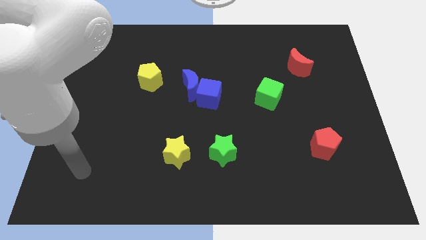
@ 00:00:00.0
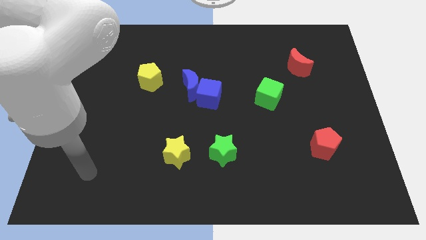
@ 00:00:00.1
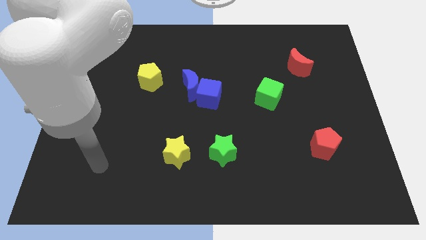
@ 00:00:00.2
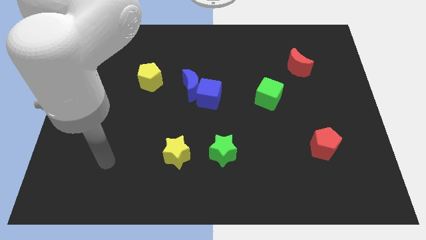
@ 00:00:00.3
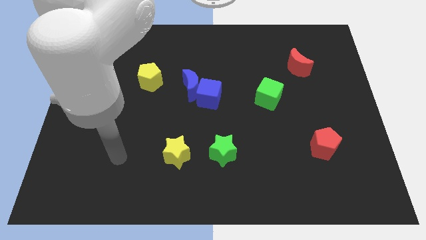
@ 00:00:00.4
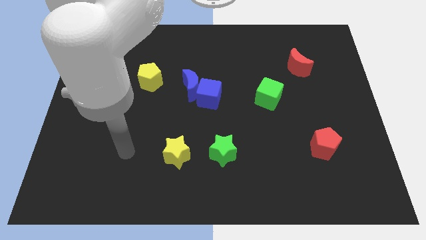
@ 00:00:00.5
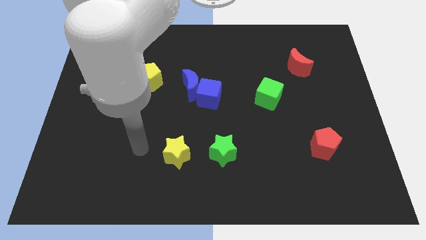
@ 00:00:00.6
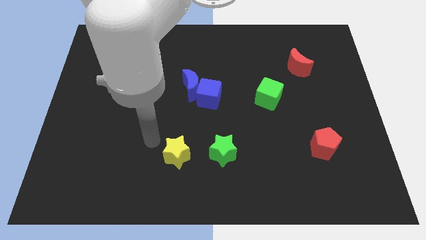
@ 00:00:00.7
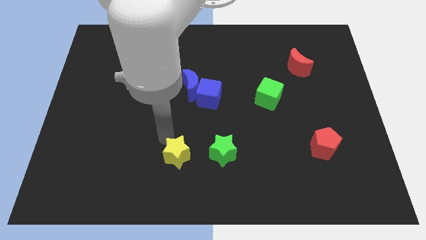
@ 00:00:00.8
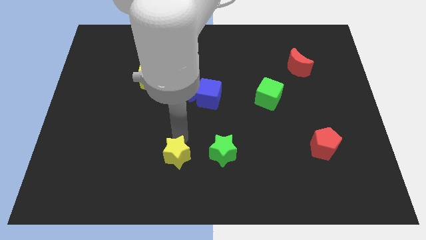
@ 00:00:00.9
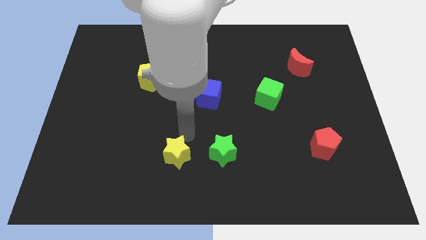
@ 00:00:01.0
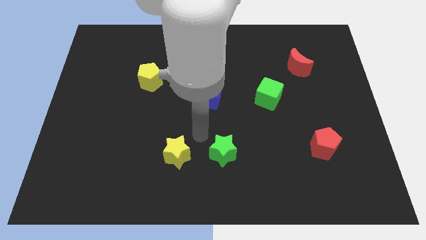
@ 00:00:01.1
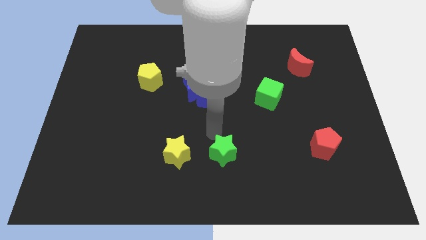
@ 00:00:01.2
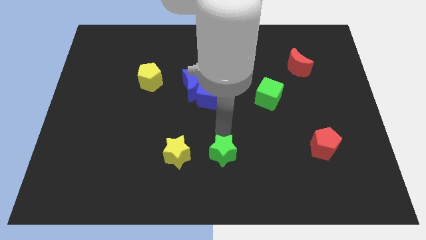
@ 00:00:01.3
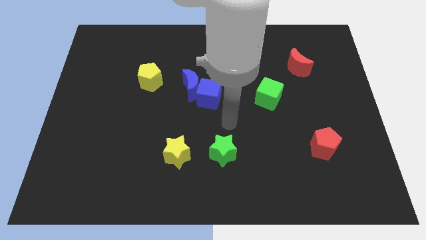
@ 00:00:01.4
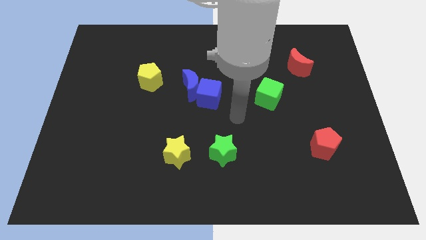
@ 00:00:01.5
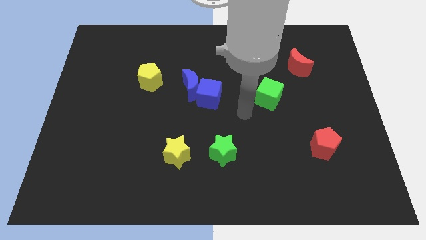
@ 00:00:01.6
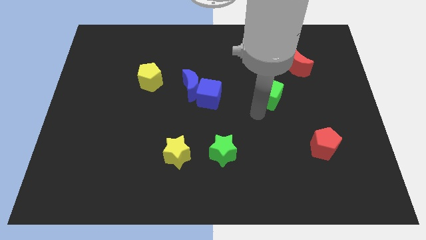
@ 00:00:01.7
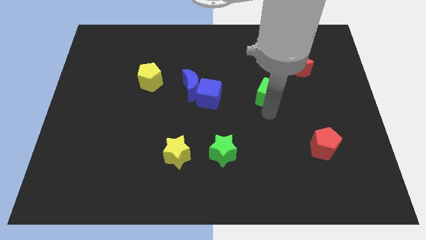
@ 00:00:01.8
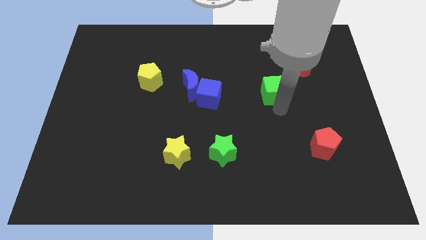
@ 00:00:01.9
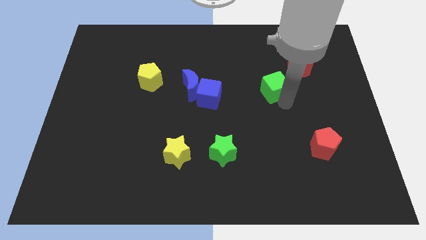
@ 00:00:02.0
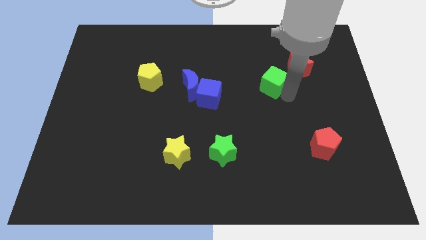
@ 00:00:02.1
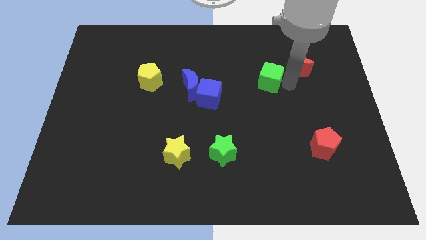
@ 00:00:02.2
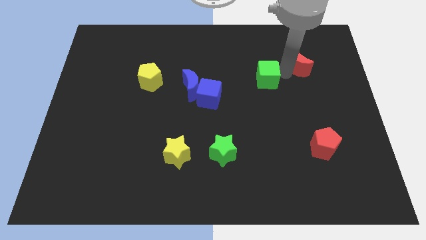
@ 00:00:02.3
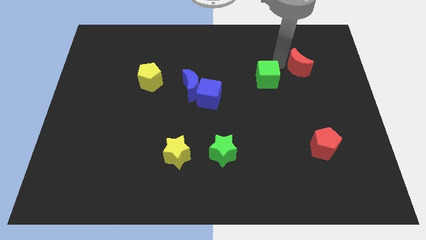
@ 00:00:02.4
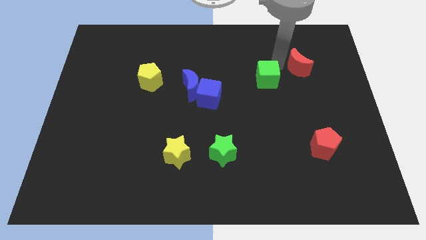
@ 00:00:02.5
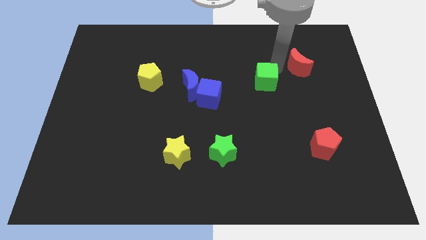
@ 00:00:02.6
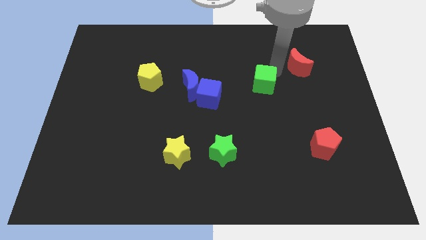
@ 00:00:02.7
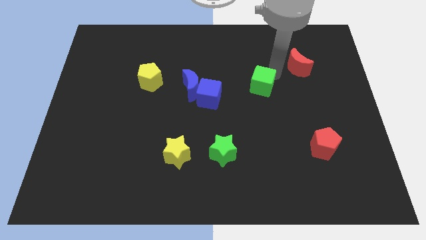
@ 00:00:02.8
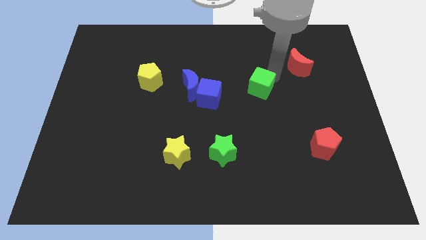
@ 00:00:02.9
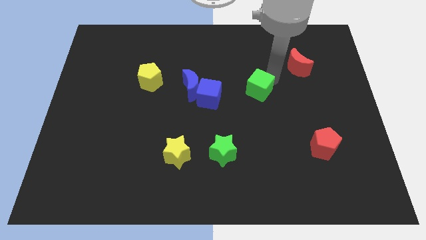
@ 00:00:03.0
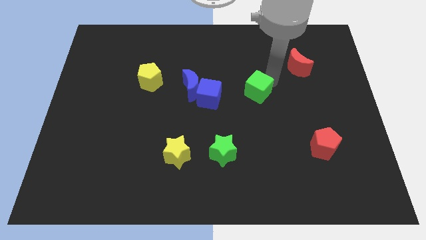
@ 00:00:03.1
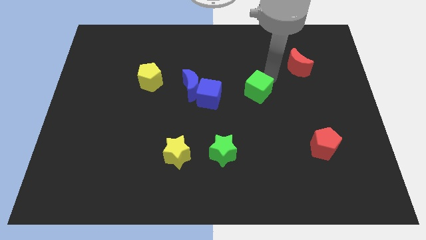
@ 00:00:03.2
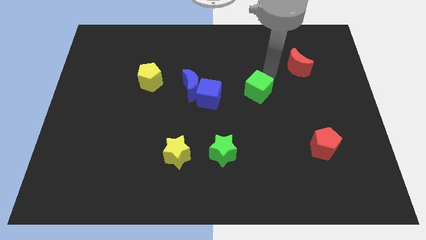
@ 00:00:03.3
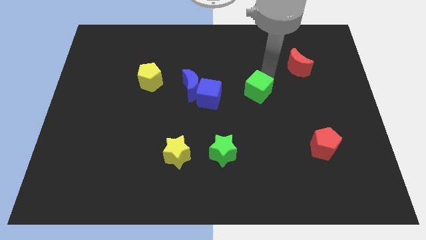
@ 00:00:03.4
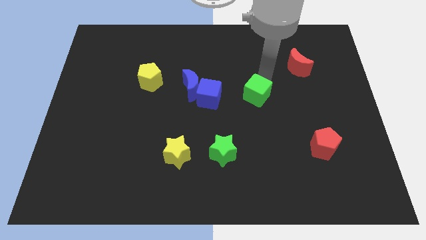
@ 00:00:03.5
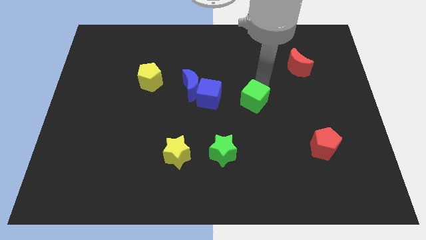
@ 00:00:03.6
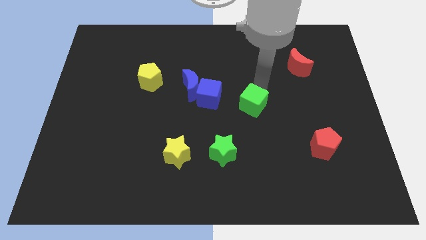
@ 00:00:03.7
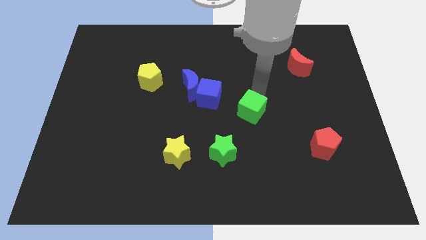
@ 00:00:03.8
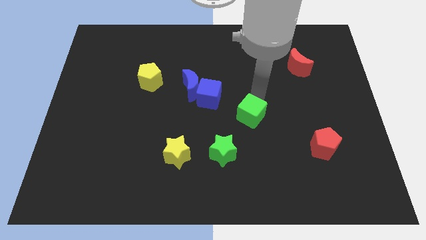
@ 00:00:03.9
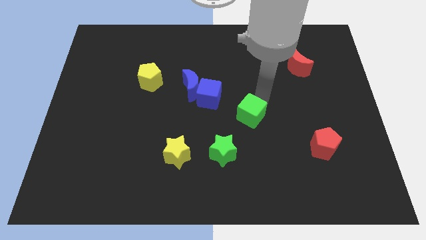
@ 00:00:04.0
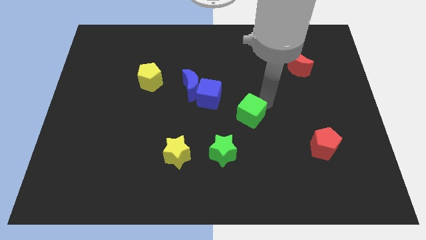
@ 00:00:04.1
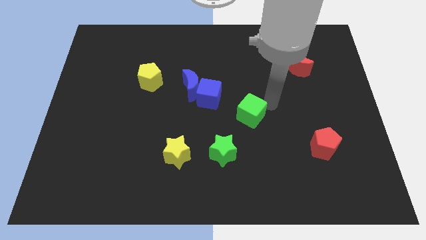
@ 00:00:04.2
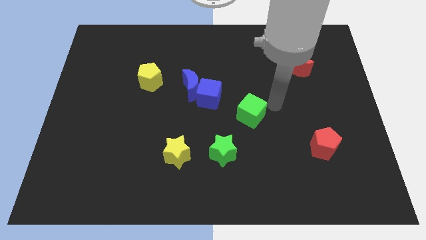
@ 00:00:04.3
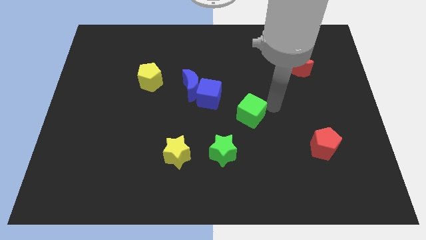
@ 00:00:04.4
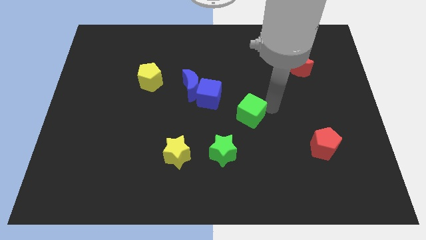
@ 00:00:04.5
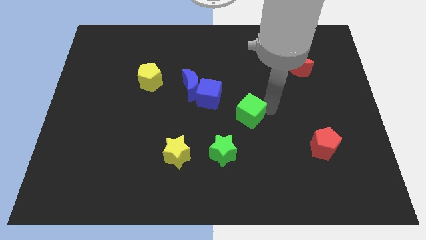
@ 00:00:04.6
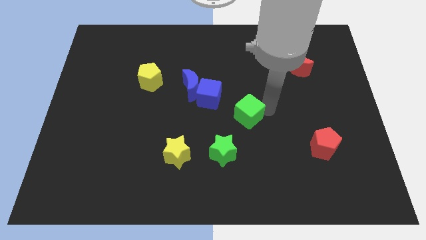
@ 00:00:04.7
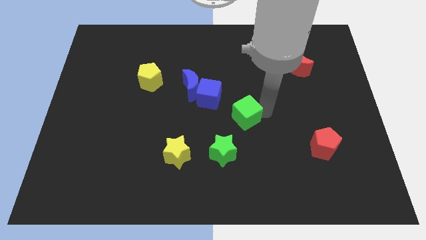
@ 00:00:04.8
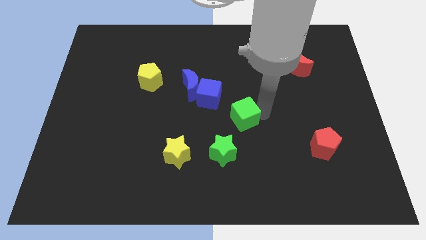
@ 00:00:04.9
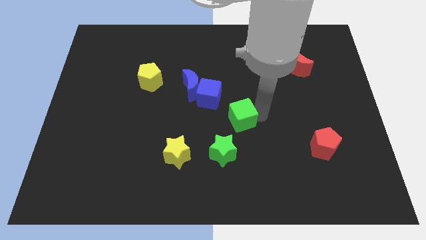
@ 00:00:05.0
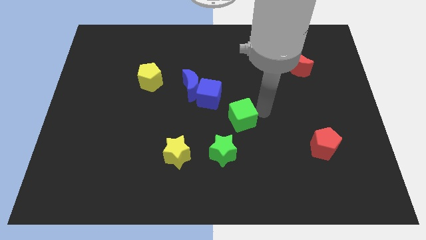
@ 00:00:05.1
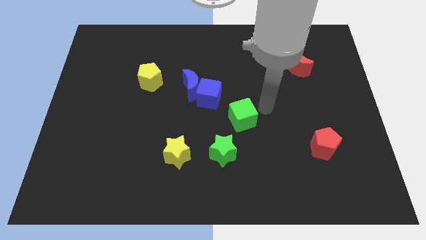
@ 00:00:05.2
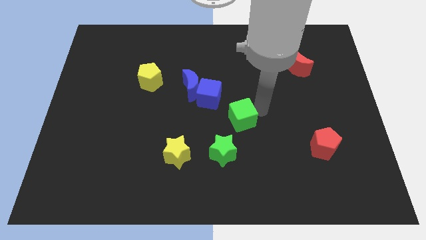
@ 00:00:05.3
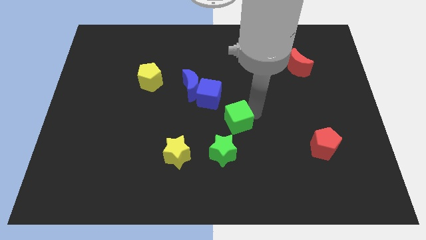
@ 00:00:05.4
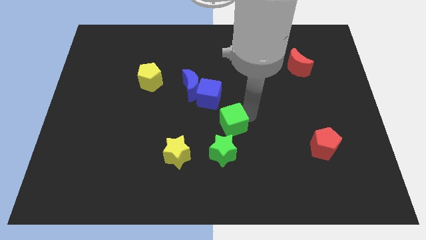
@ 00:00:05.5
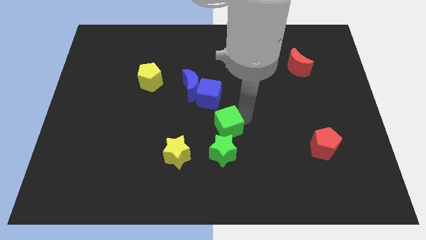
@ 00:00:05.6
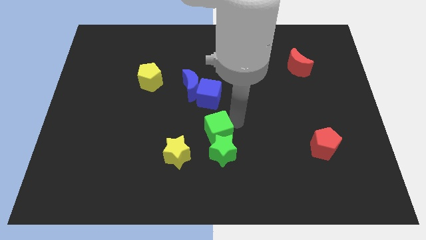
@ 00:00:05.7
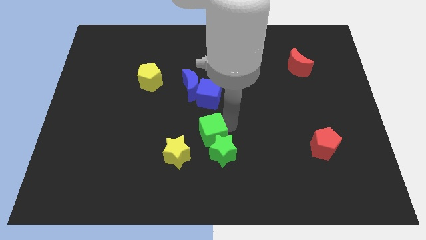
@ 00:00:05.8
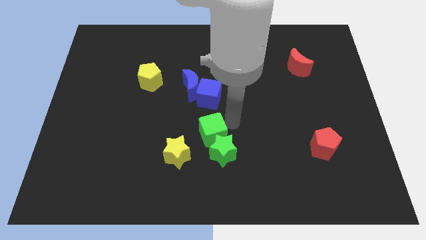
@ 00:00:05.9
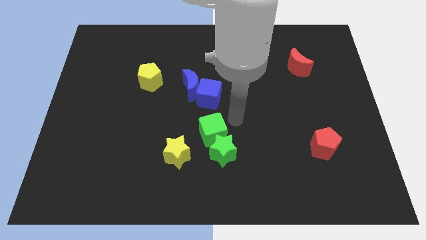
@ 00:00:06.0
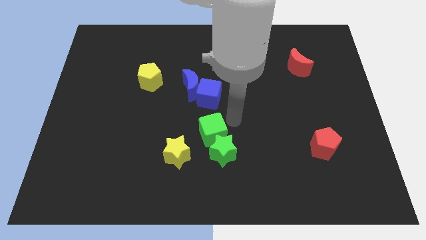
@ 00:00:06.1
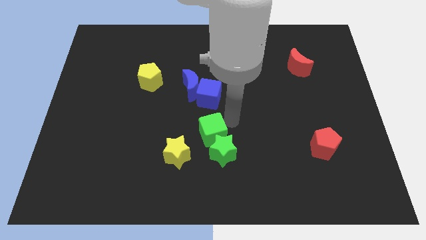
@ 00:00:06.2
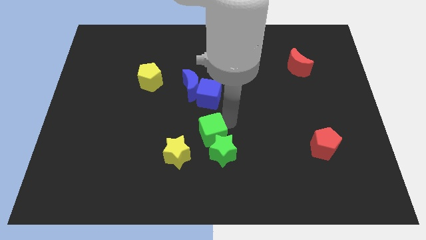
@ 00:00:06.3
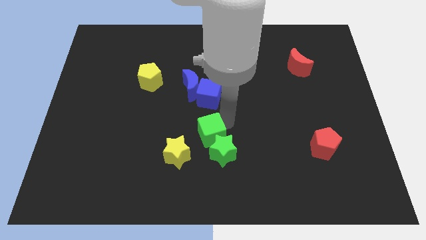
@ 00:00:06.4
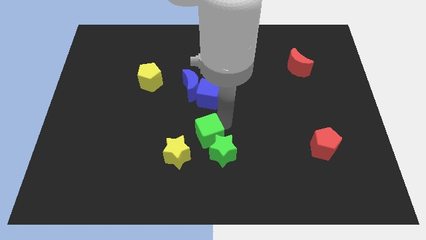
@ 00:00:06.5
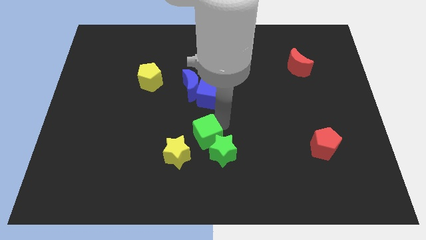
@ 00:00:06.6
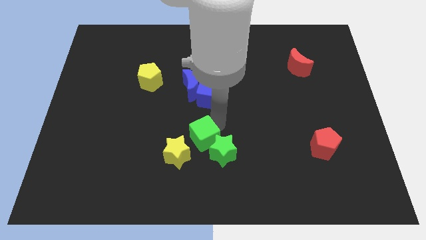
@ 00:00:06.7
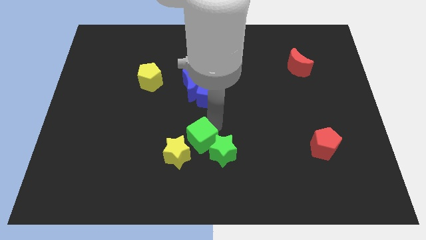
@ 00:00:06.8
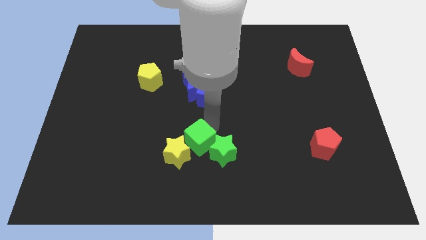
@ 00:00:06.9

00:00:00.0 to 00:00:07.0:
put the green cube close to the yellow star

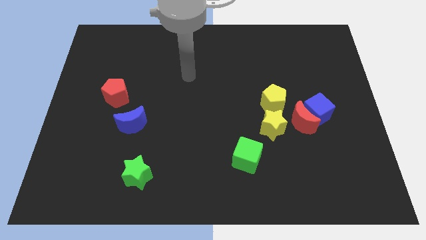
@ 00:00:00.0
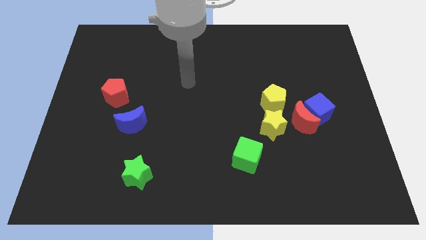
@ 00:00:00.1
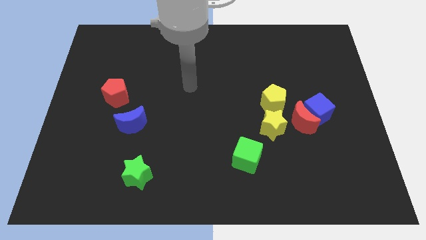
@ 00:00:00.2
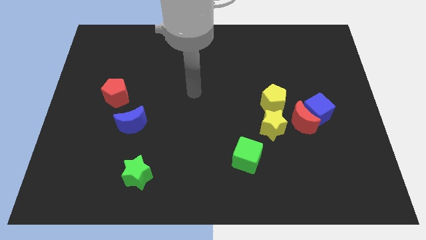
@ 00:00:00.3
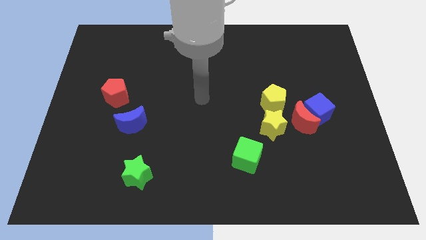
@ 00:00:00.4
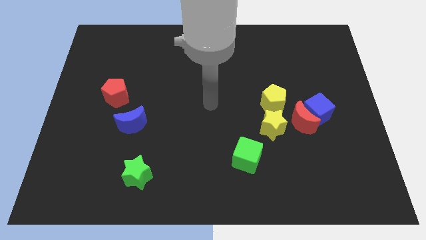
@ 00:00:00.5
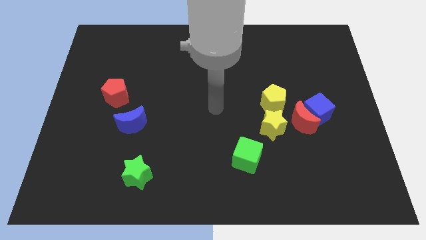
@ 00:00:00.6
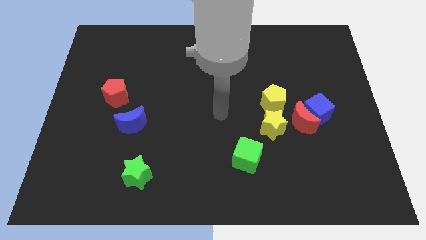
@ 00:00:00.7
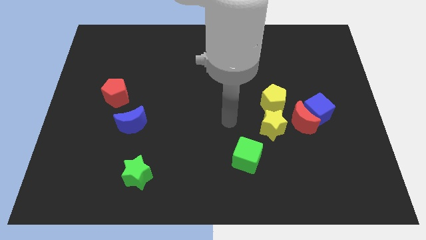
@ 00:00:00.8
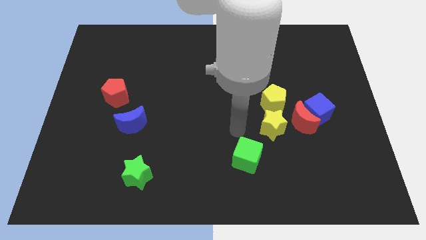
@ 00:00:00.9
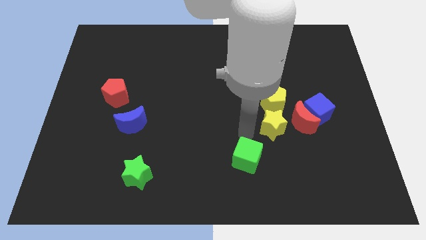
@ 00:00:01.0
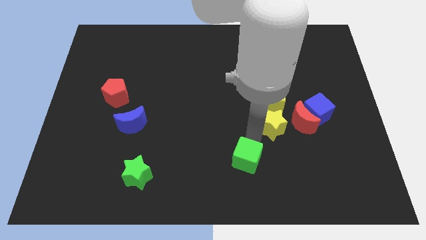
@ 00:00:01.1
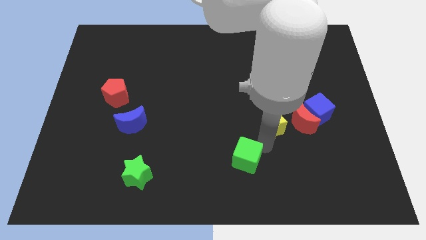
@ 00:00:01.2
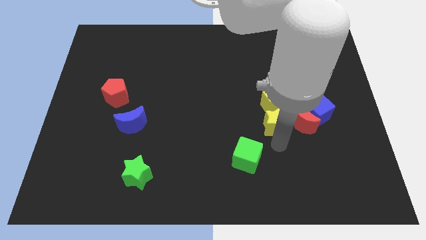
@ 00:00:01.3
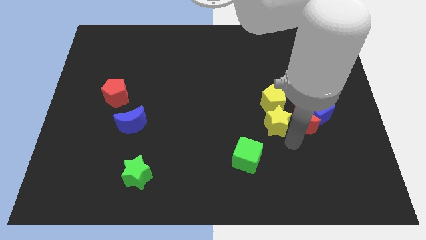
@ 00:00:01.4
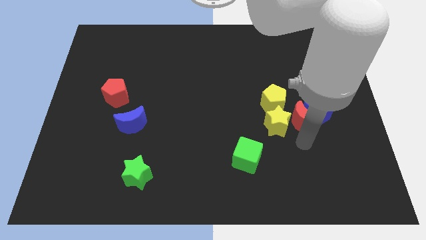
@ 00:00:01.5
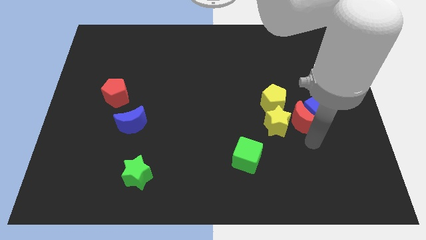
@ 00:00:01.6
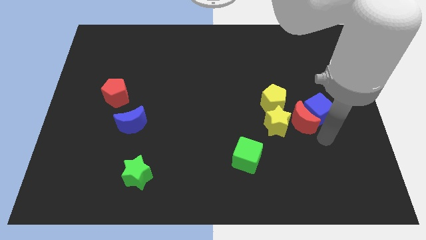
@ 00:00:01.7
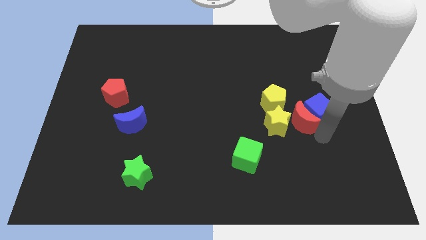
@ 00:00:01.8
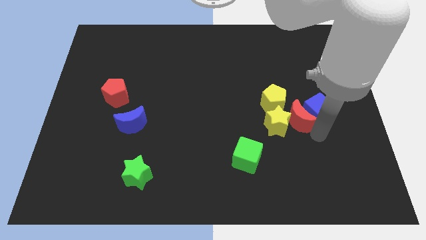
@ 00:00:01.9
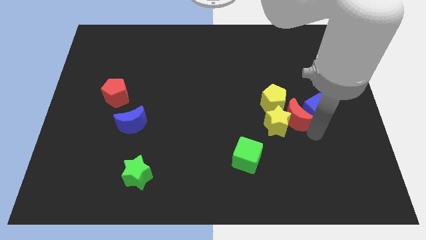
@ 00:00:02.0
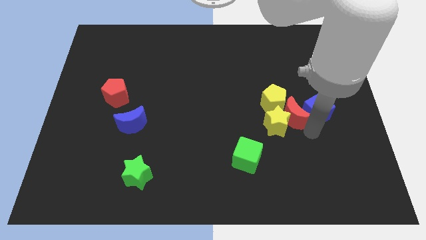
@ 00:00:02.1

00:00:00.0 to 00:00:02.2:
push the red moon towards the yellow pentagon
